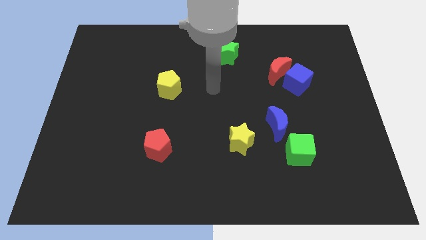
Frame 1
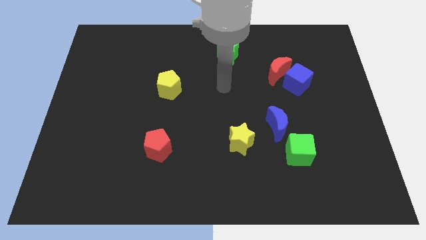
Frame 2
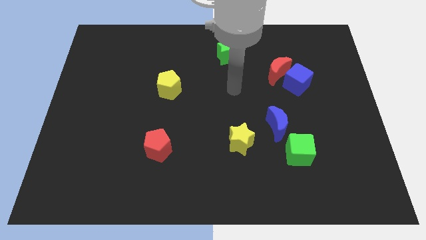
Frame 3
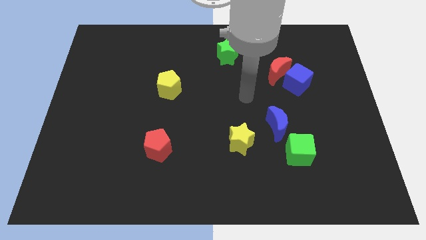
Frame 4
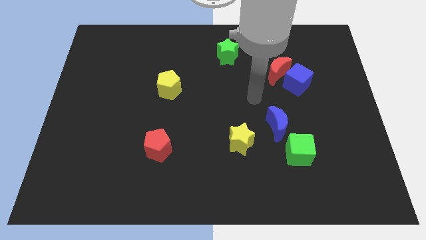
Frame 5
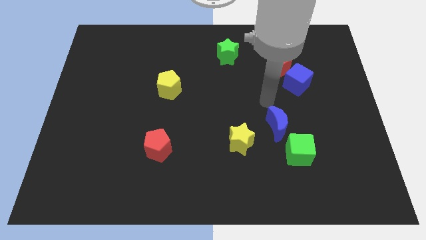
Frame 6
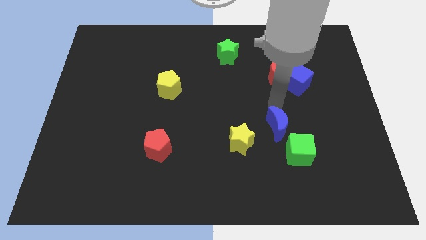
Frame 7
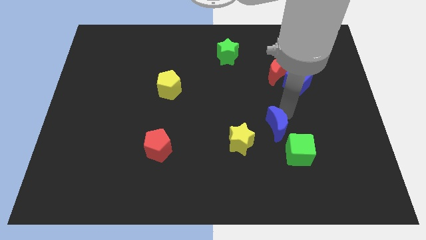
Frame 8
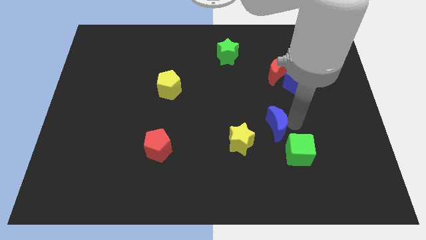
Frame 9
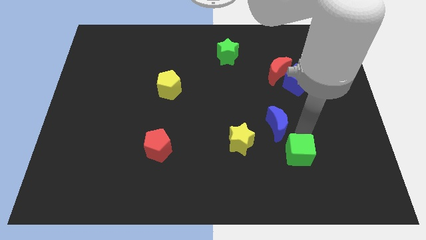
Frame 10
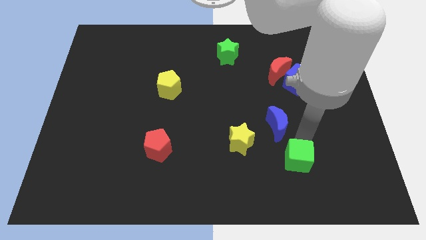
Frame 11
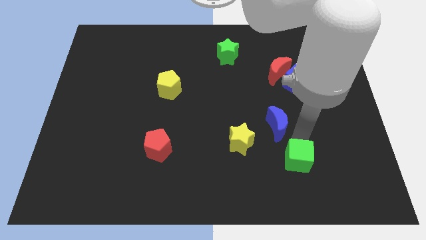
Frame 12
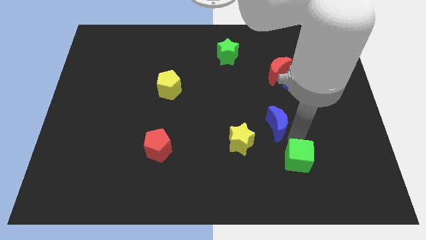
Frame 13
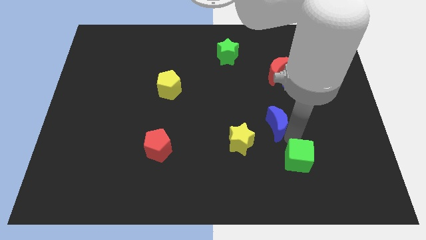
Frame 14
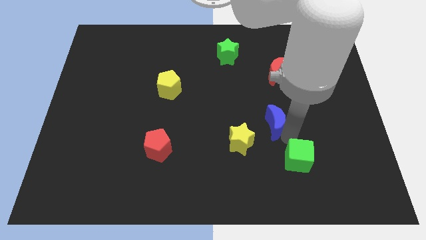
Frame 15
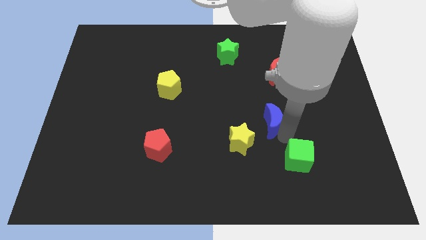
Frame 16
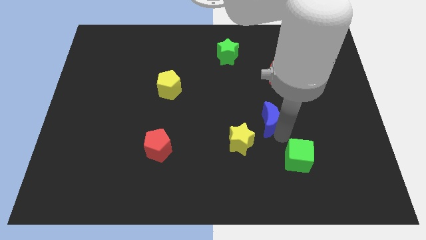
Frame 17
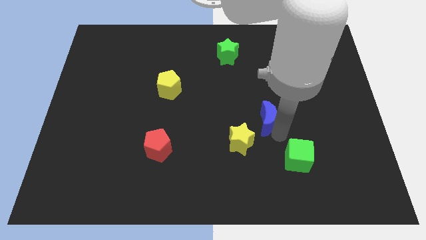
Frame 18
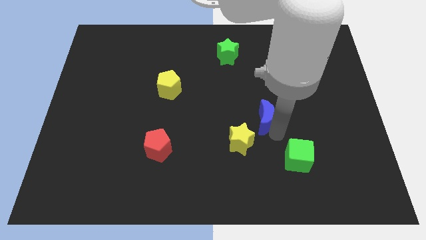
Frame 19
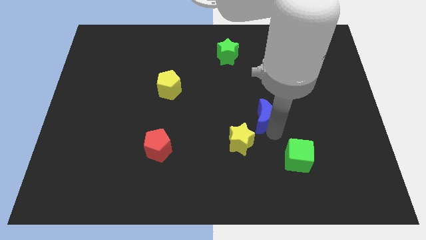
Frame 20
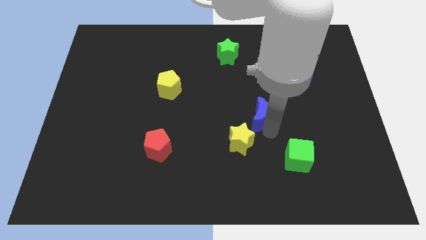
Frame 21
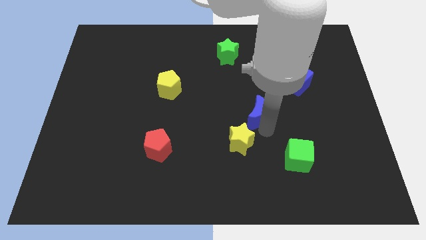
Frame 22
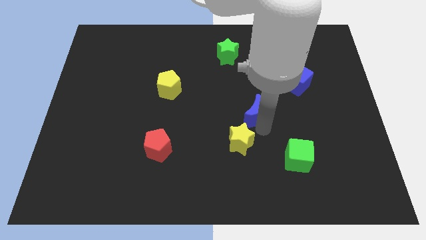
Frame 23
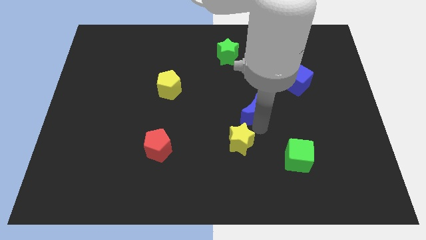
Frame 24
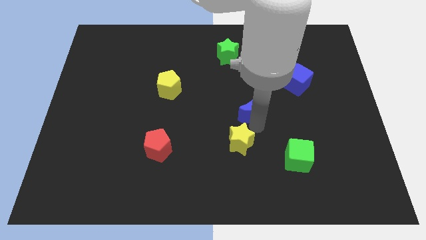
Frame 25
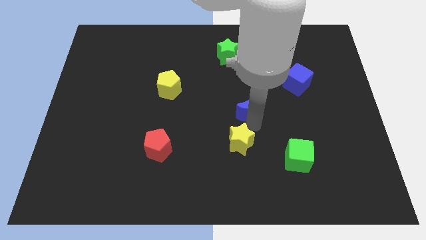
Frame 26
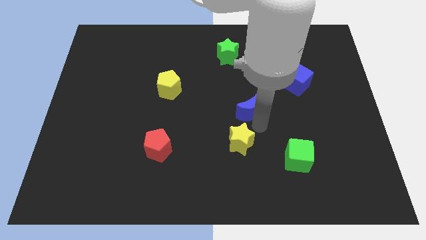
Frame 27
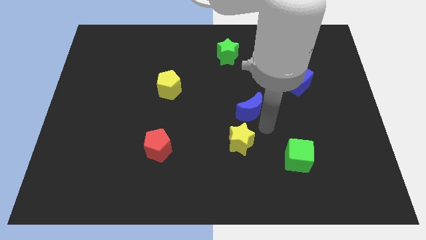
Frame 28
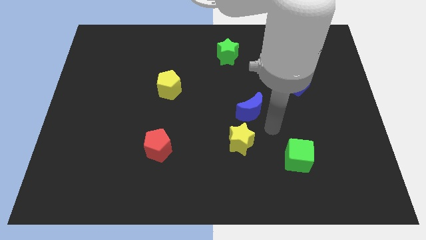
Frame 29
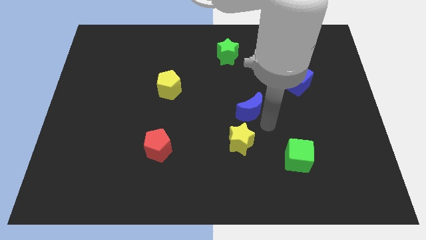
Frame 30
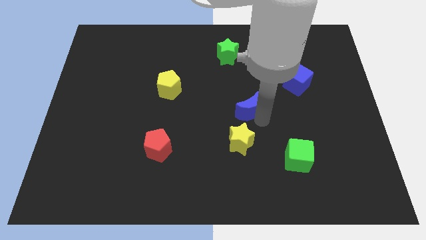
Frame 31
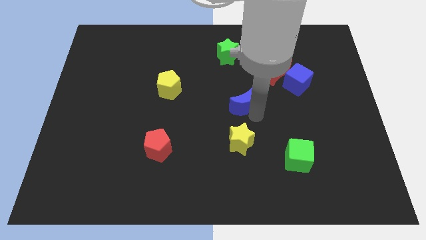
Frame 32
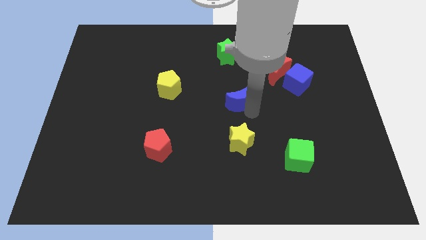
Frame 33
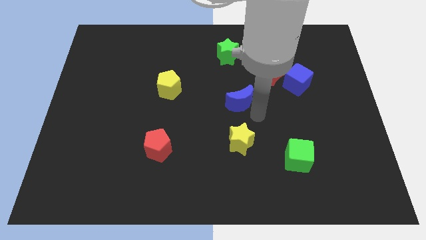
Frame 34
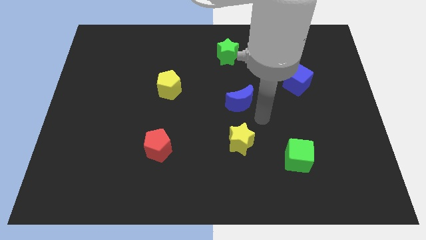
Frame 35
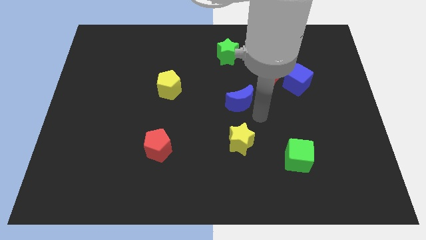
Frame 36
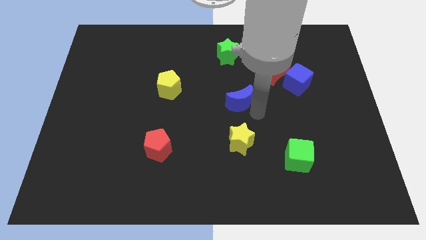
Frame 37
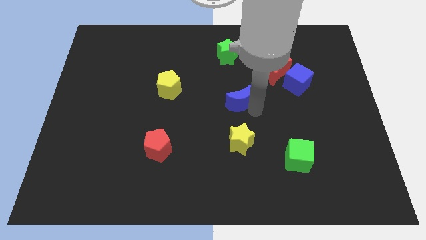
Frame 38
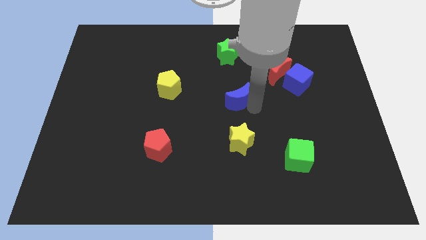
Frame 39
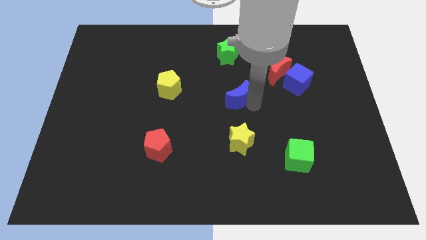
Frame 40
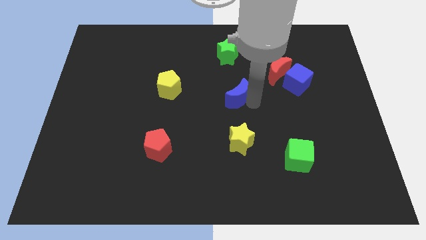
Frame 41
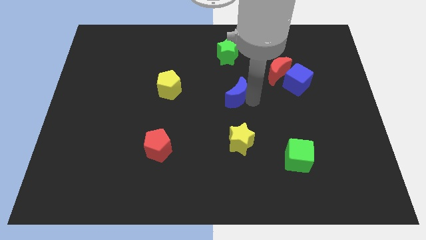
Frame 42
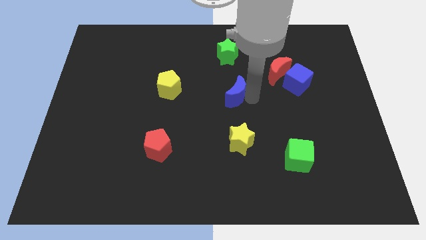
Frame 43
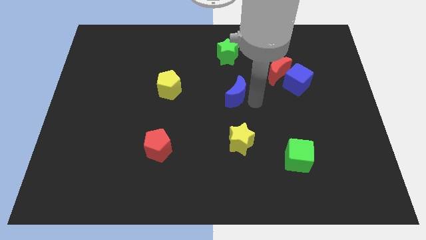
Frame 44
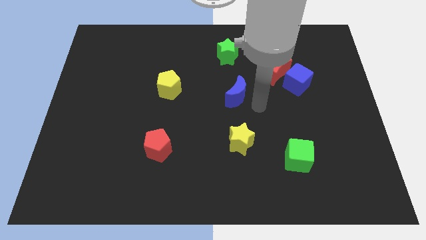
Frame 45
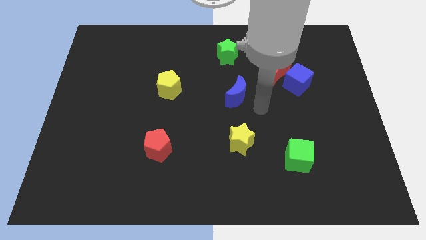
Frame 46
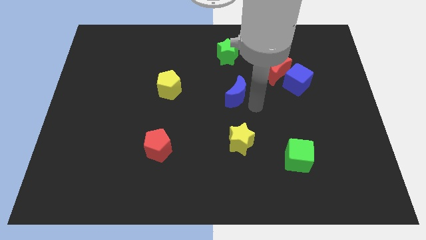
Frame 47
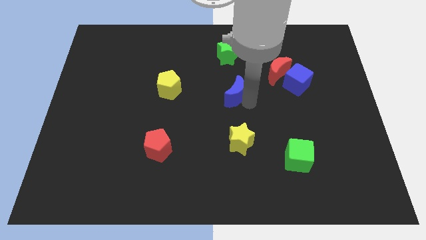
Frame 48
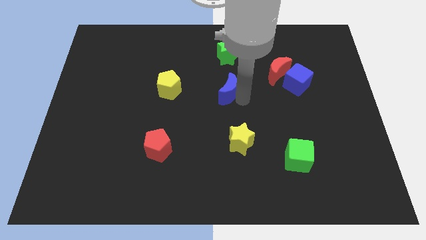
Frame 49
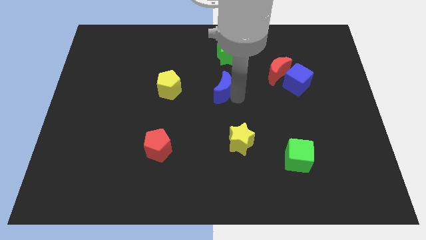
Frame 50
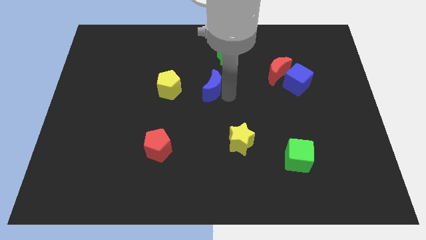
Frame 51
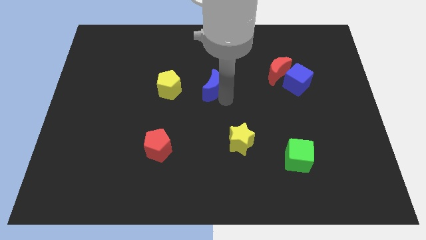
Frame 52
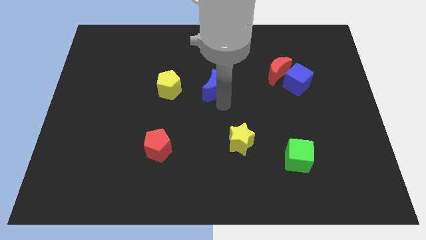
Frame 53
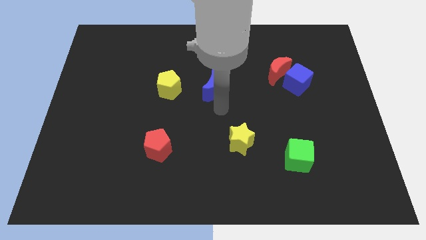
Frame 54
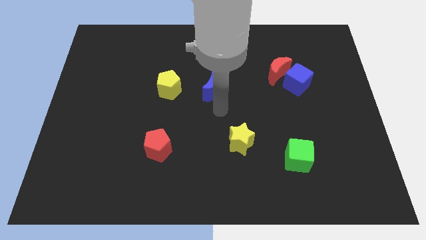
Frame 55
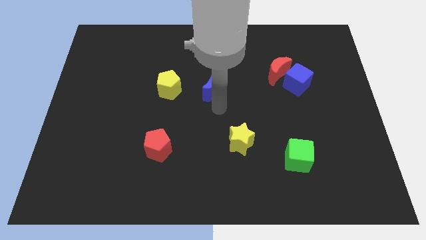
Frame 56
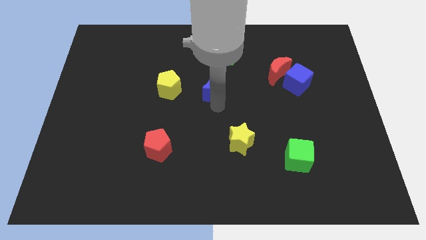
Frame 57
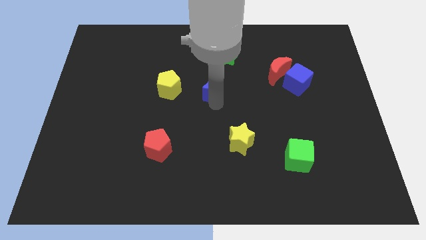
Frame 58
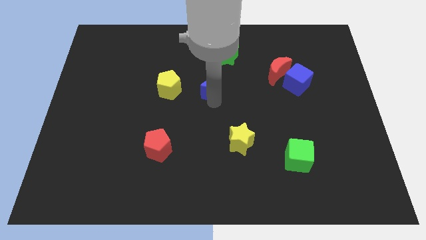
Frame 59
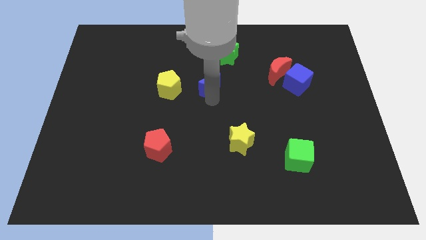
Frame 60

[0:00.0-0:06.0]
push the blue moon to the bottom left side of the green star

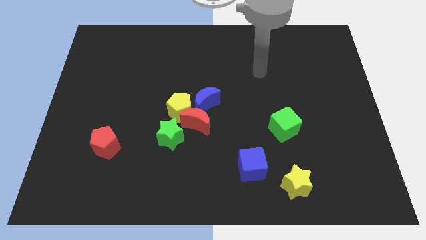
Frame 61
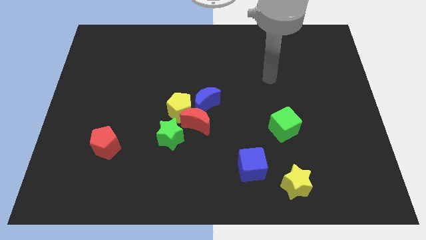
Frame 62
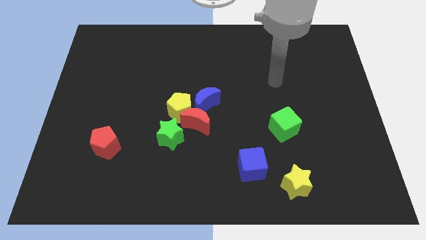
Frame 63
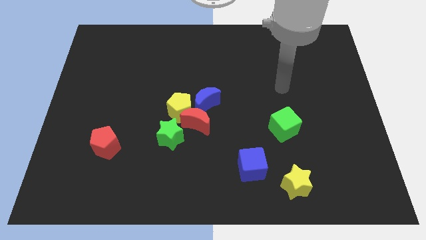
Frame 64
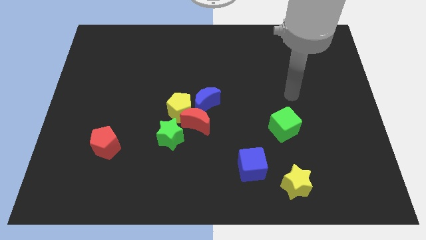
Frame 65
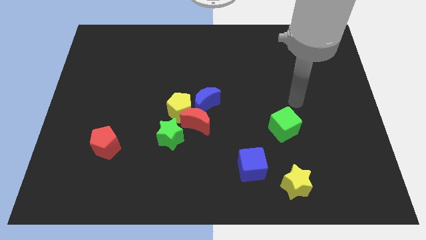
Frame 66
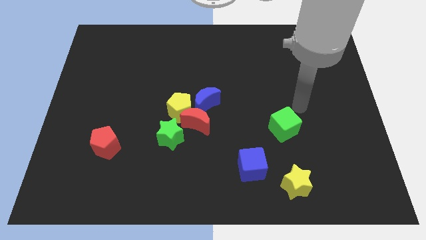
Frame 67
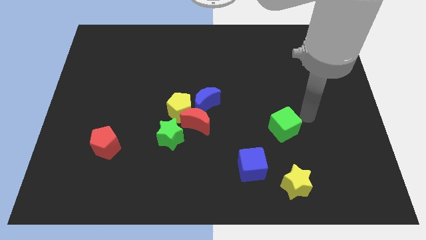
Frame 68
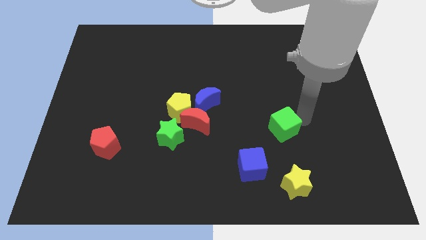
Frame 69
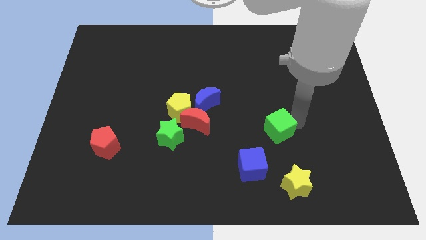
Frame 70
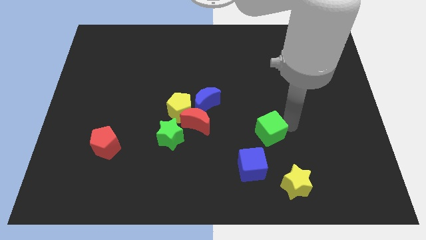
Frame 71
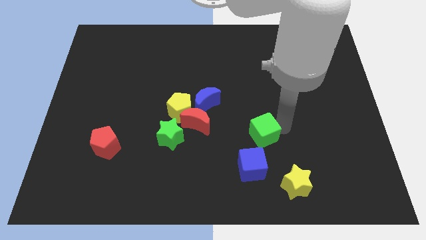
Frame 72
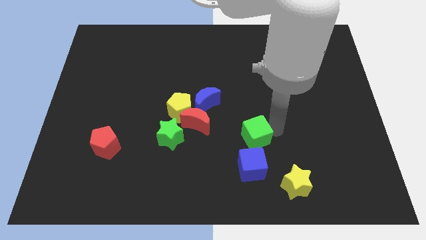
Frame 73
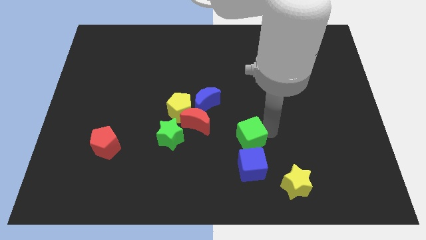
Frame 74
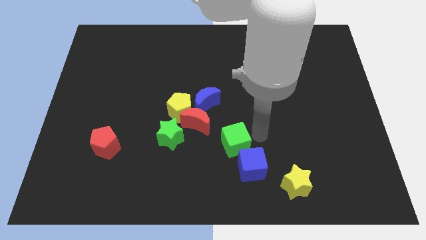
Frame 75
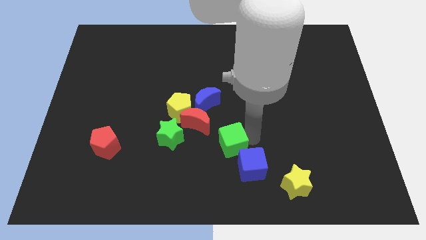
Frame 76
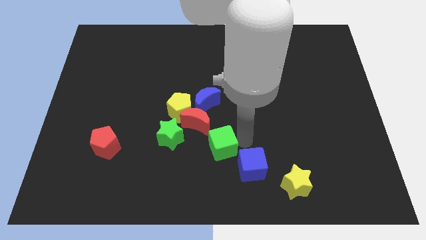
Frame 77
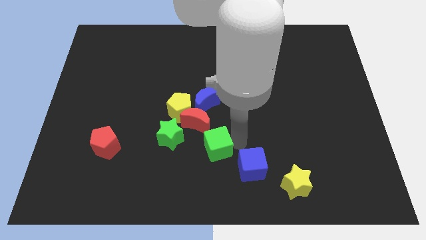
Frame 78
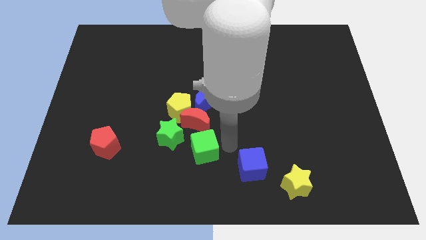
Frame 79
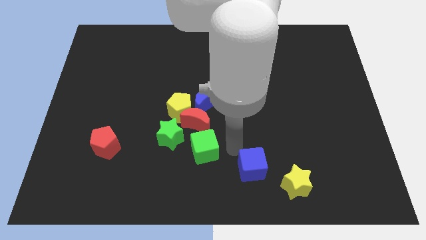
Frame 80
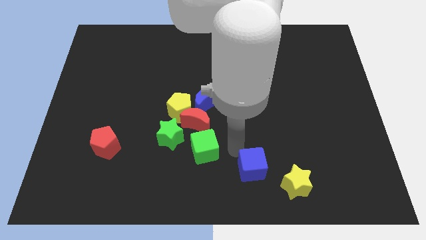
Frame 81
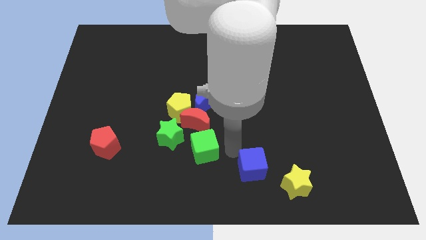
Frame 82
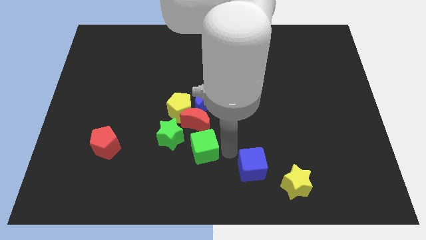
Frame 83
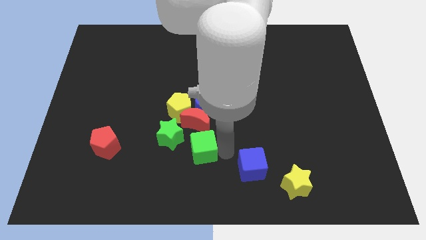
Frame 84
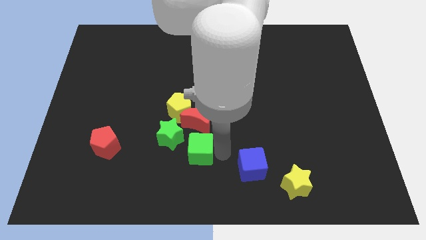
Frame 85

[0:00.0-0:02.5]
move the green cube to the bottom side of the yellow pentagon
